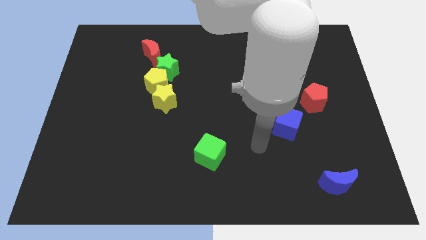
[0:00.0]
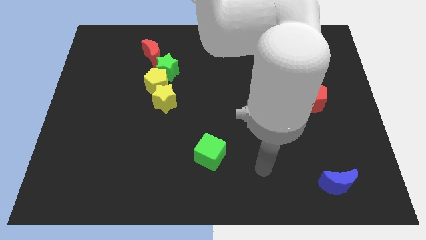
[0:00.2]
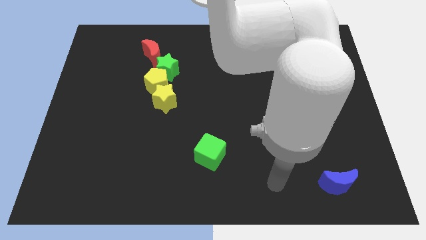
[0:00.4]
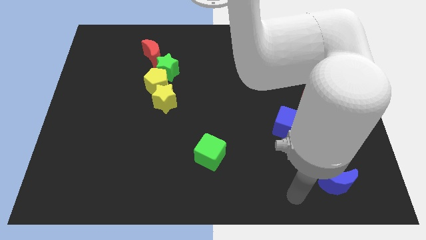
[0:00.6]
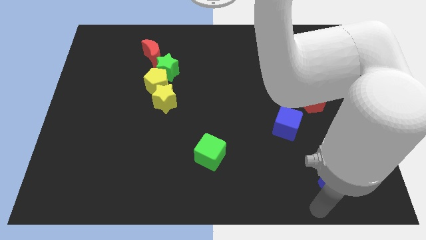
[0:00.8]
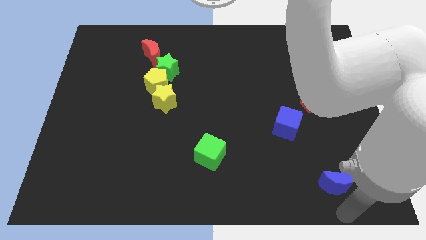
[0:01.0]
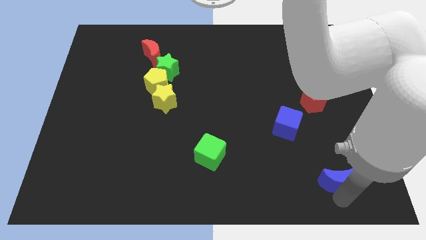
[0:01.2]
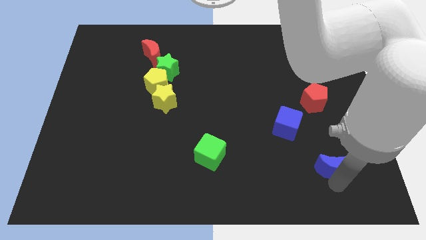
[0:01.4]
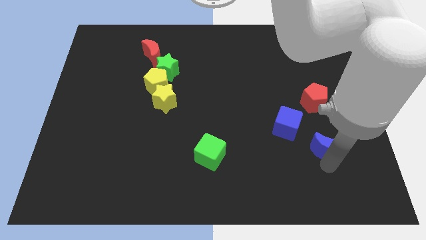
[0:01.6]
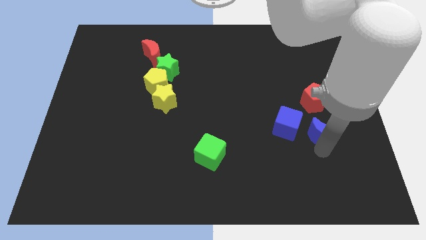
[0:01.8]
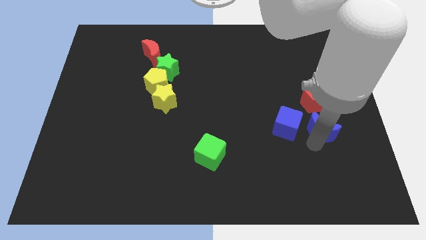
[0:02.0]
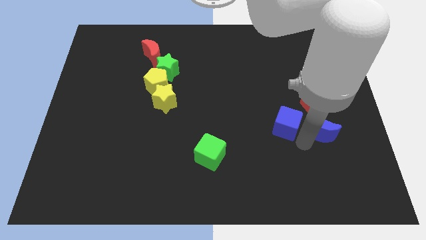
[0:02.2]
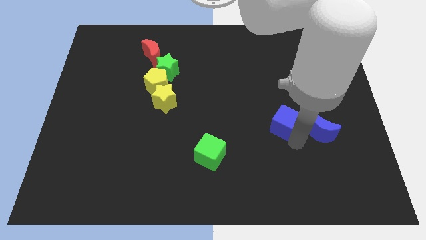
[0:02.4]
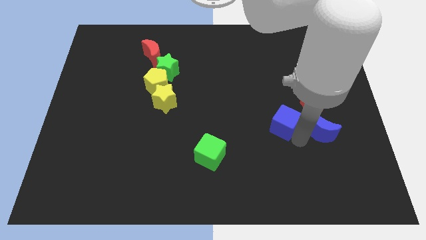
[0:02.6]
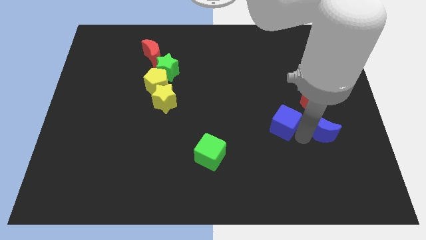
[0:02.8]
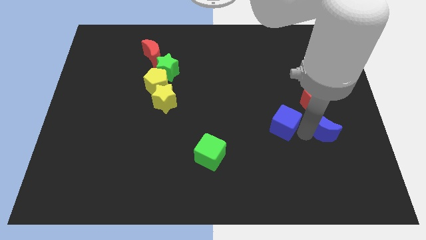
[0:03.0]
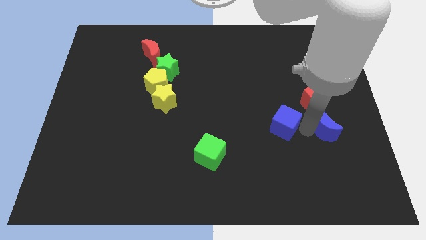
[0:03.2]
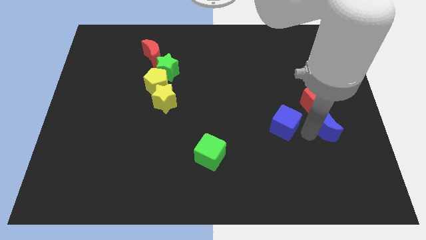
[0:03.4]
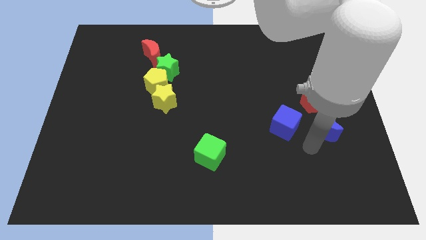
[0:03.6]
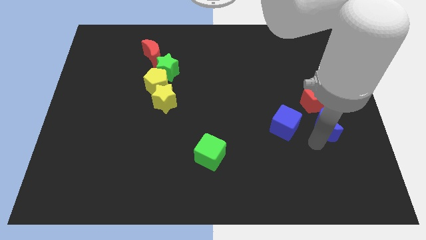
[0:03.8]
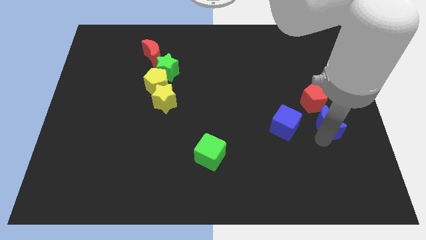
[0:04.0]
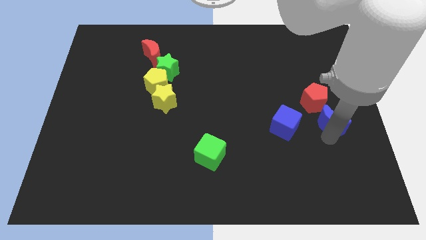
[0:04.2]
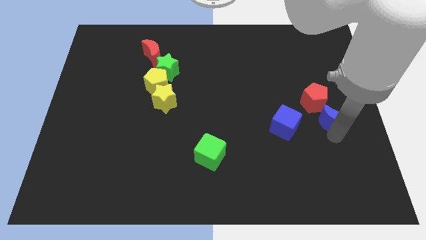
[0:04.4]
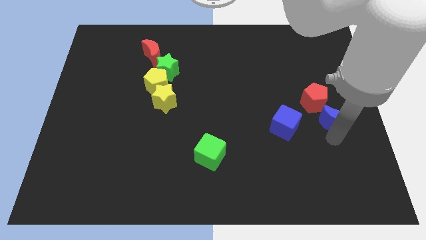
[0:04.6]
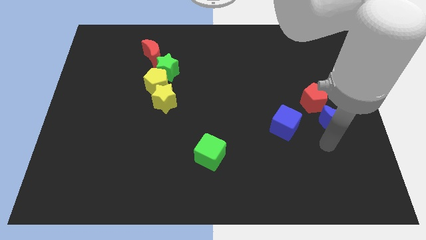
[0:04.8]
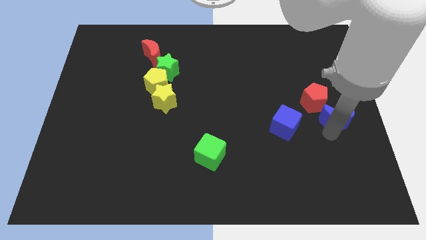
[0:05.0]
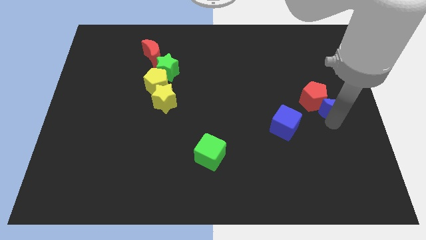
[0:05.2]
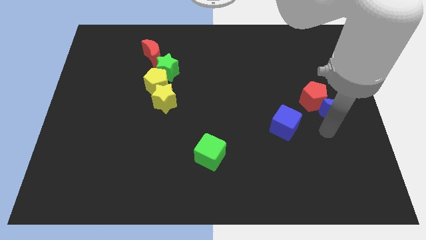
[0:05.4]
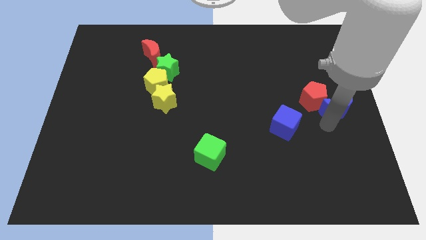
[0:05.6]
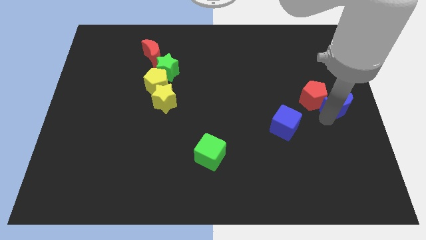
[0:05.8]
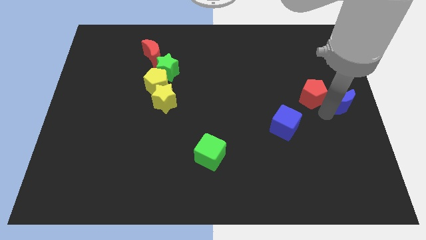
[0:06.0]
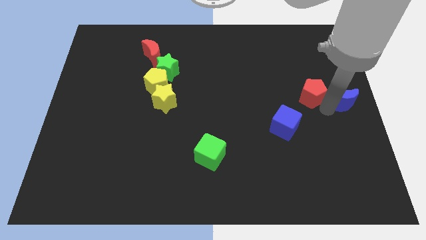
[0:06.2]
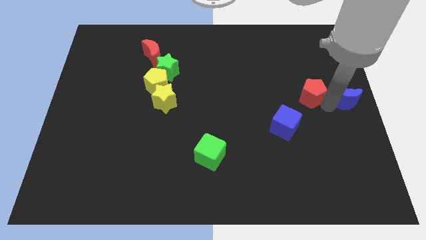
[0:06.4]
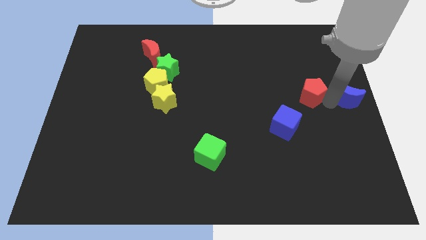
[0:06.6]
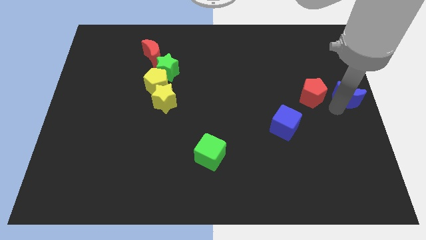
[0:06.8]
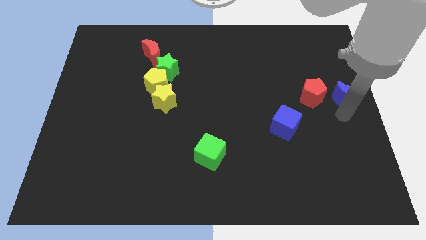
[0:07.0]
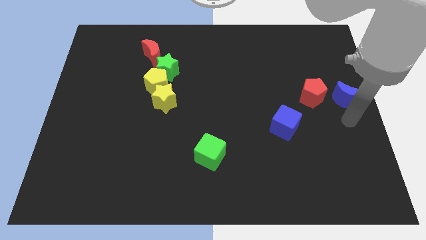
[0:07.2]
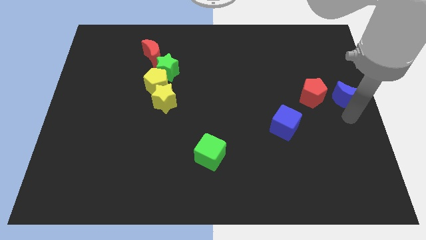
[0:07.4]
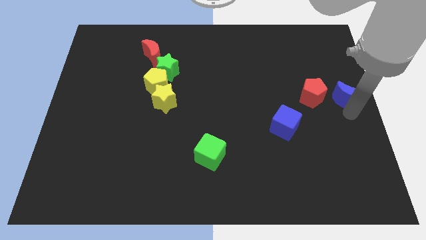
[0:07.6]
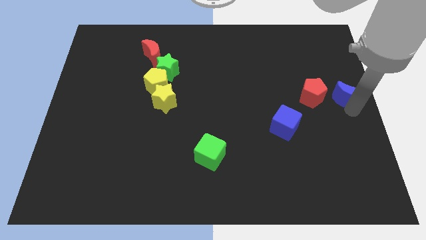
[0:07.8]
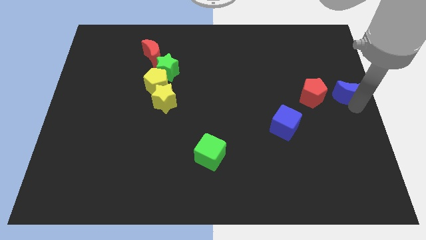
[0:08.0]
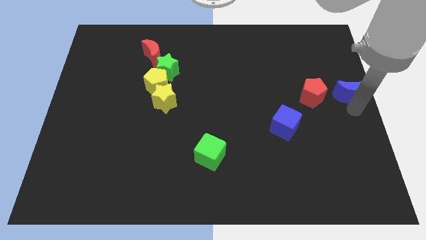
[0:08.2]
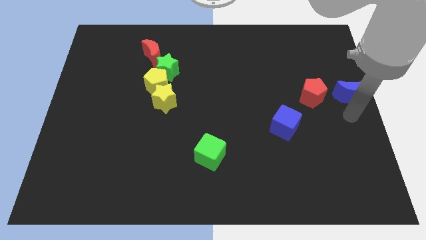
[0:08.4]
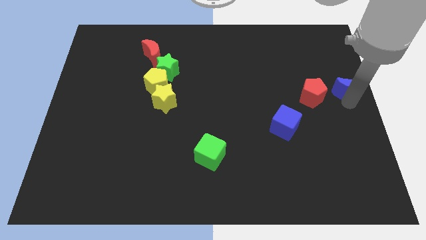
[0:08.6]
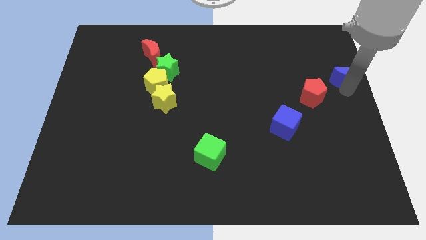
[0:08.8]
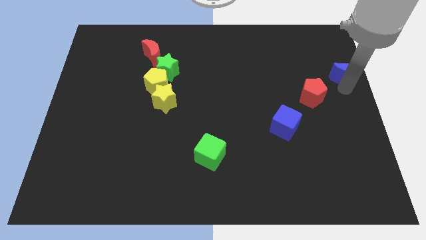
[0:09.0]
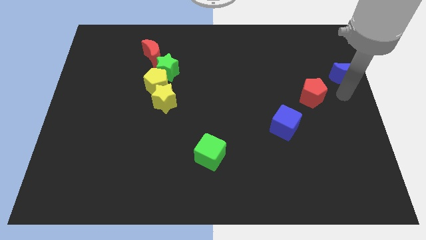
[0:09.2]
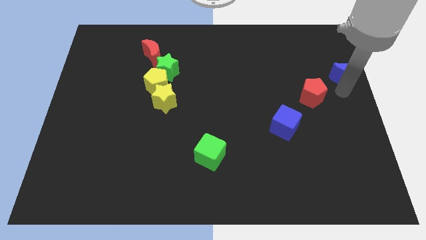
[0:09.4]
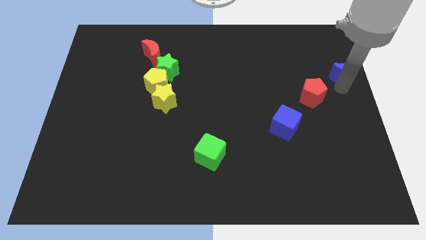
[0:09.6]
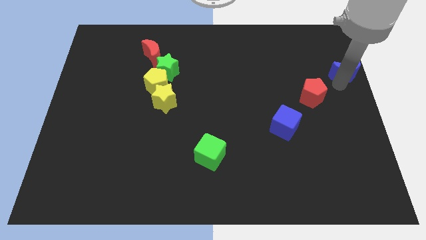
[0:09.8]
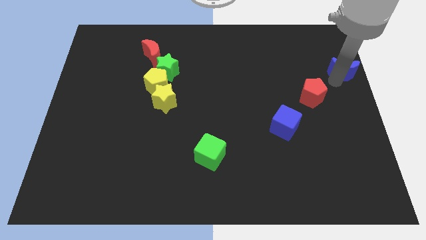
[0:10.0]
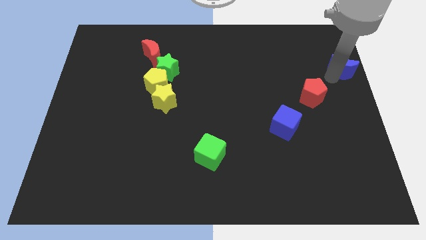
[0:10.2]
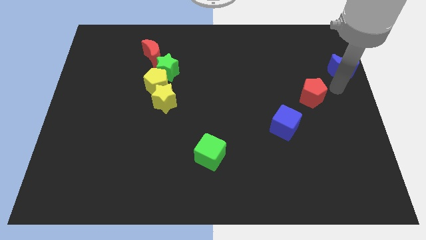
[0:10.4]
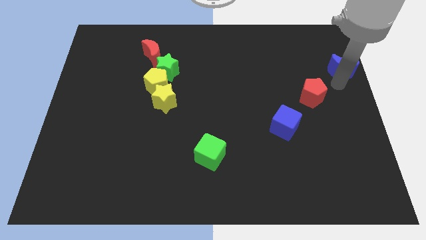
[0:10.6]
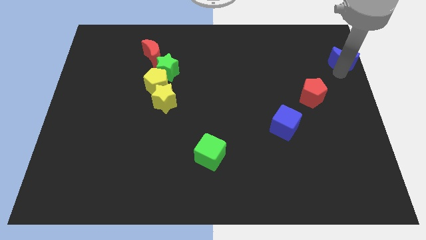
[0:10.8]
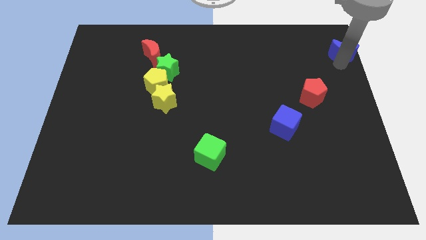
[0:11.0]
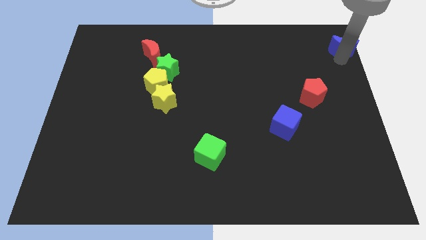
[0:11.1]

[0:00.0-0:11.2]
put the blue moon to the top right
